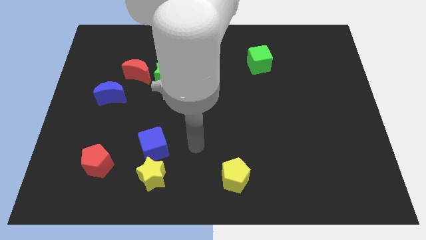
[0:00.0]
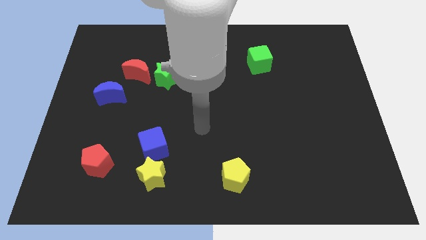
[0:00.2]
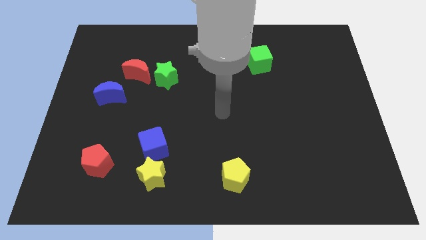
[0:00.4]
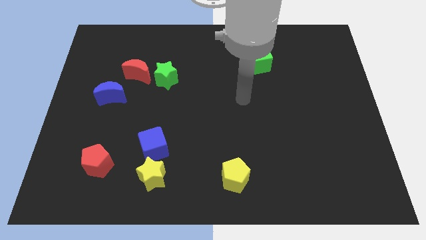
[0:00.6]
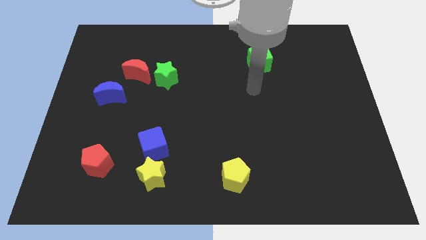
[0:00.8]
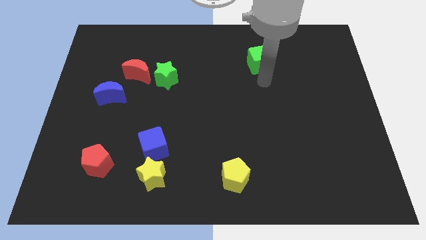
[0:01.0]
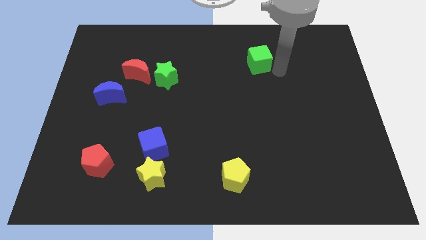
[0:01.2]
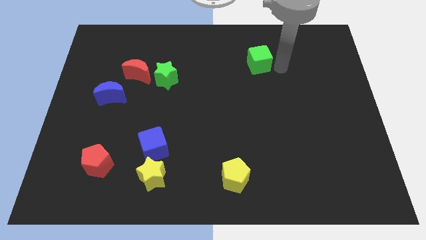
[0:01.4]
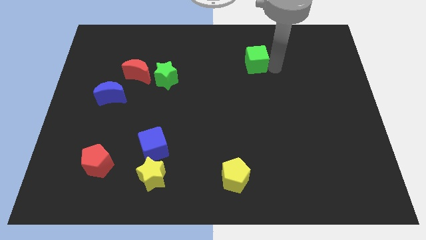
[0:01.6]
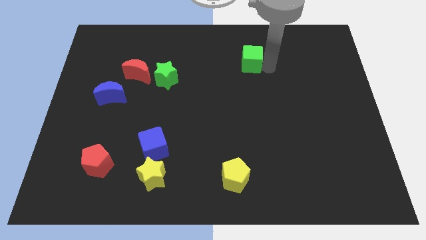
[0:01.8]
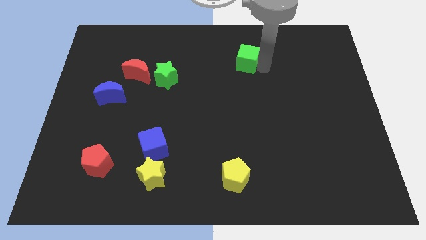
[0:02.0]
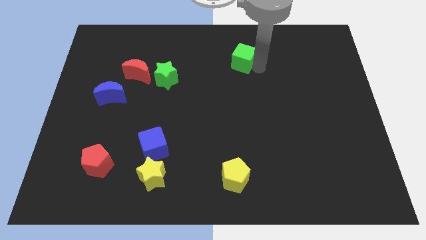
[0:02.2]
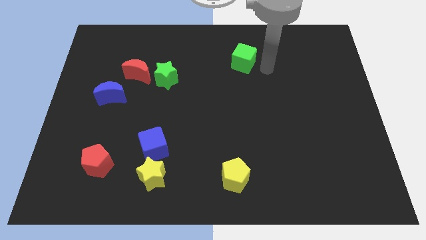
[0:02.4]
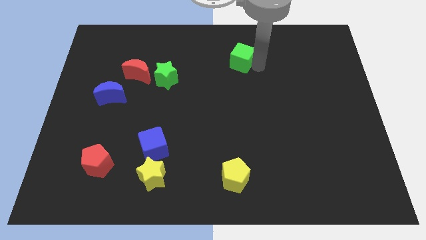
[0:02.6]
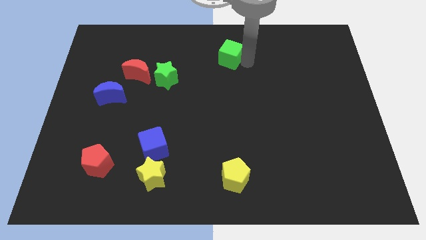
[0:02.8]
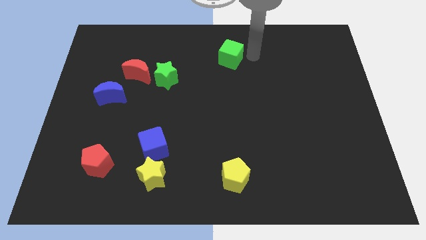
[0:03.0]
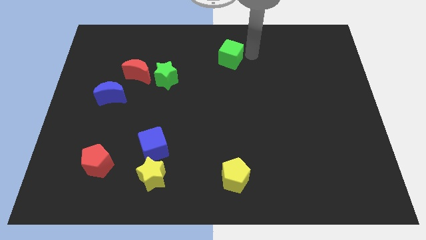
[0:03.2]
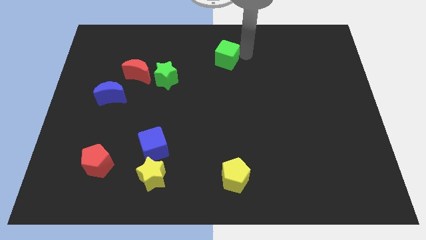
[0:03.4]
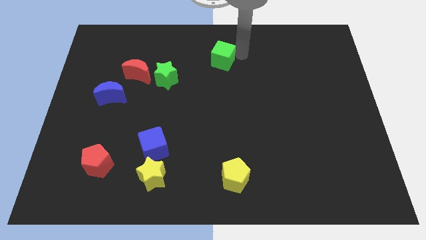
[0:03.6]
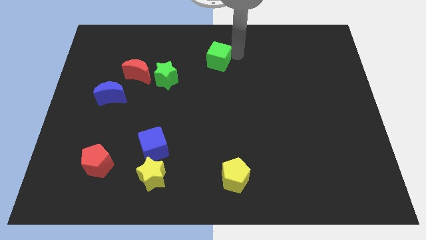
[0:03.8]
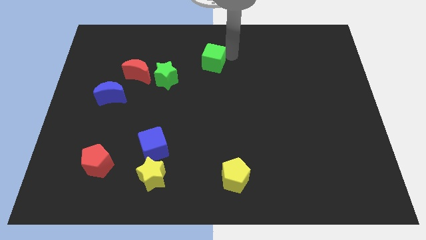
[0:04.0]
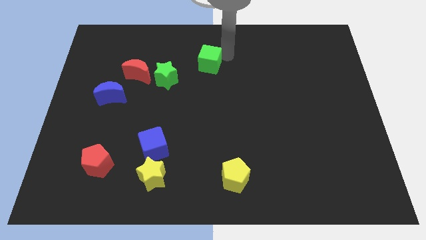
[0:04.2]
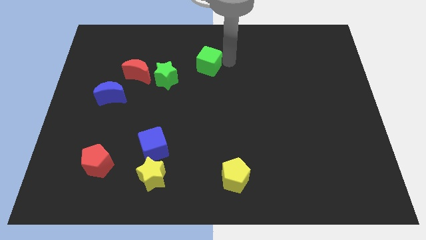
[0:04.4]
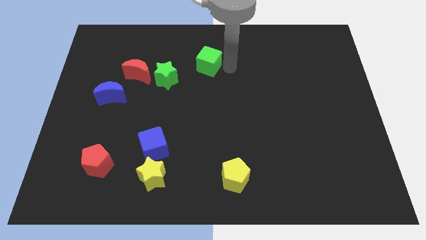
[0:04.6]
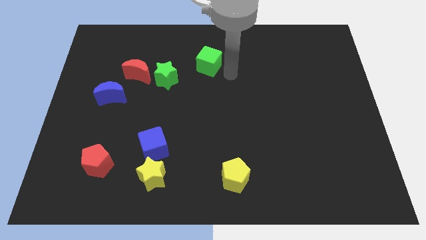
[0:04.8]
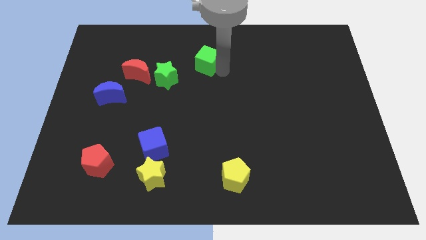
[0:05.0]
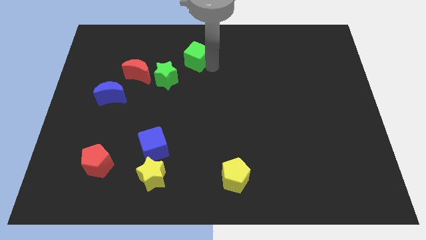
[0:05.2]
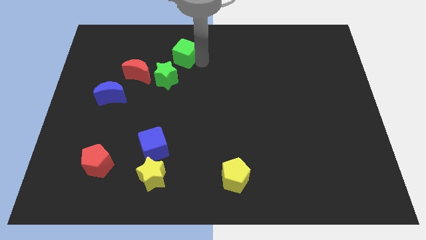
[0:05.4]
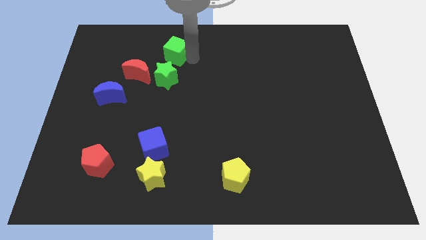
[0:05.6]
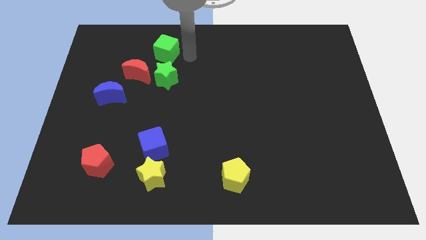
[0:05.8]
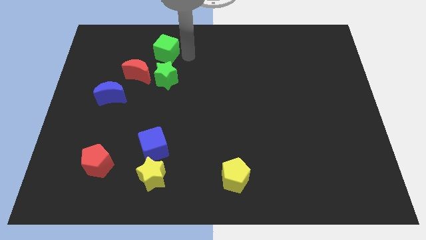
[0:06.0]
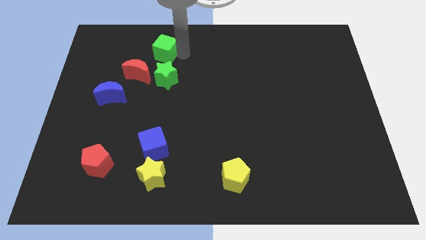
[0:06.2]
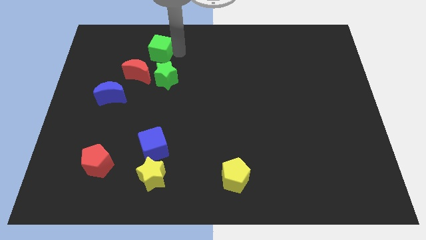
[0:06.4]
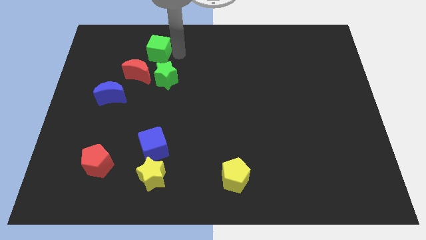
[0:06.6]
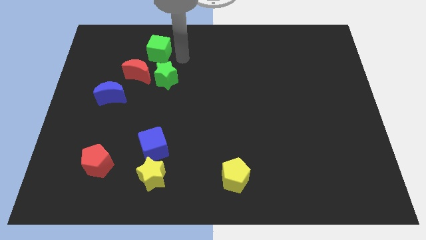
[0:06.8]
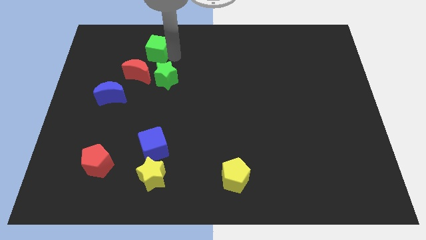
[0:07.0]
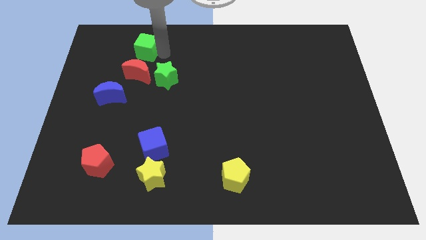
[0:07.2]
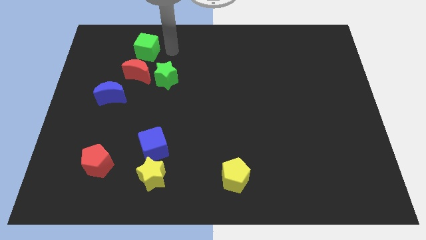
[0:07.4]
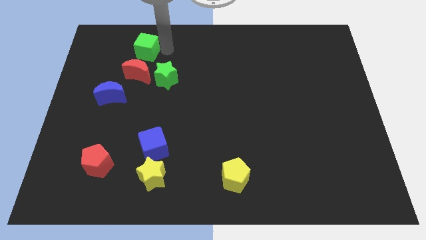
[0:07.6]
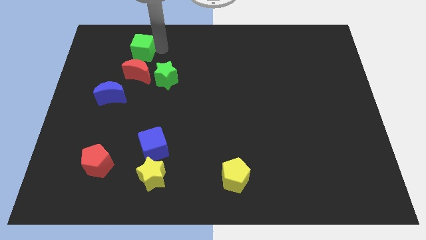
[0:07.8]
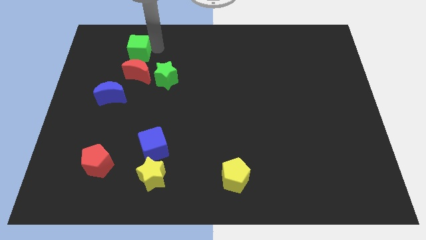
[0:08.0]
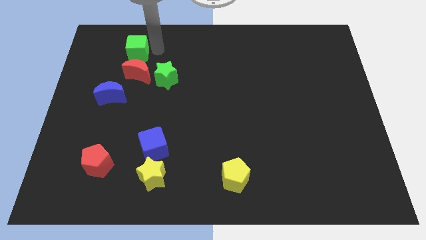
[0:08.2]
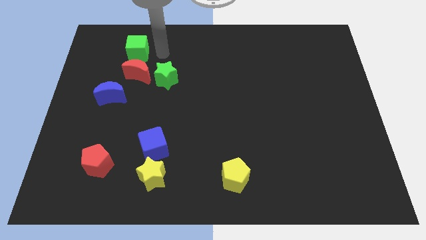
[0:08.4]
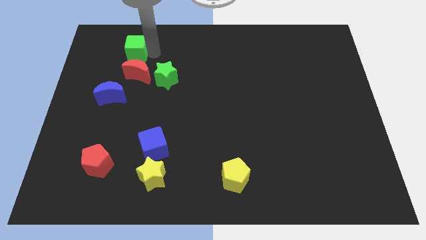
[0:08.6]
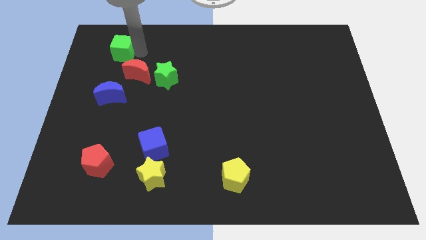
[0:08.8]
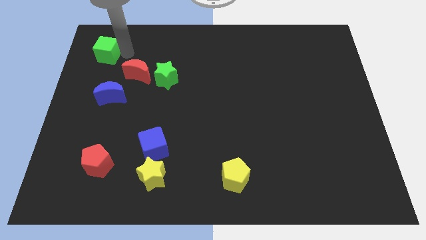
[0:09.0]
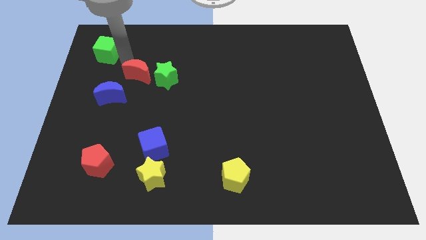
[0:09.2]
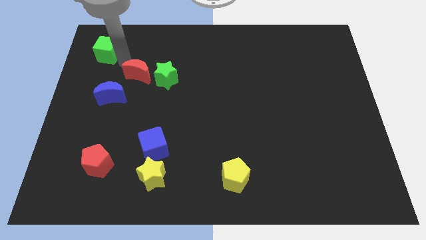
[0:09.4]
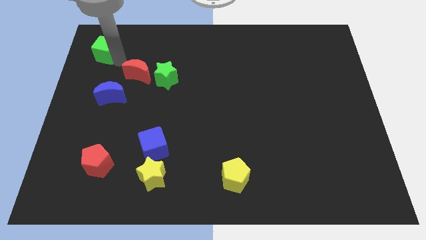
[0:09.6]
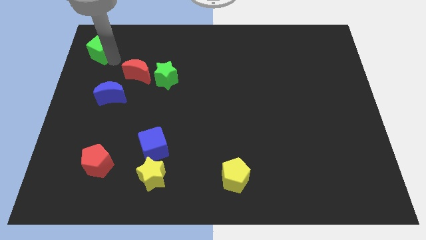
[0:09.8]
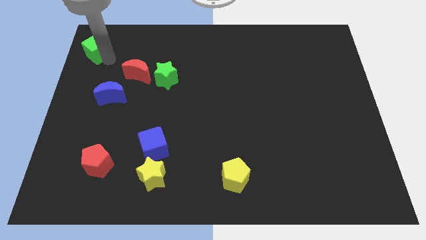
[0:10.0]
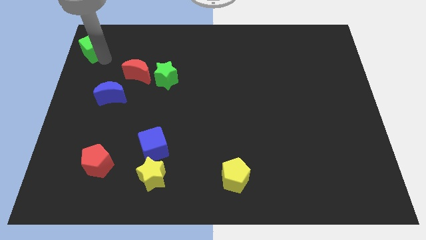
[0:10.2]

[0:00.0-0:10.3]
move the green cube to the upper left corner

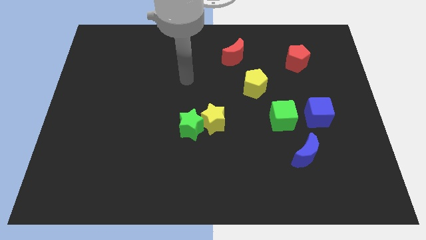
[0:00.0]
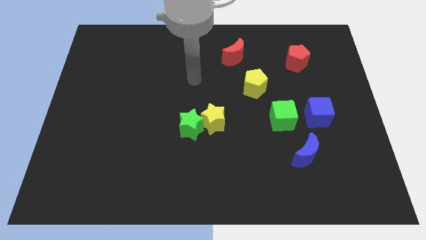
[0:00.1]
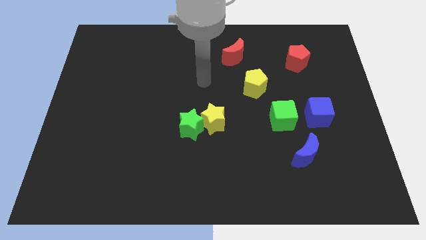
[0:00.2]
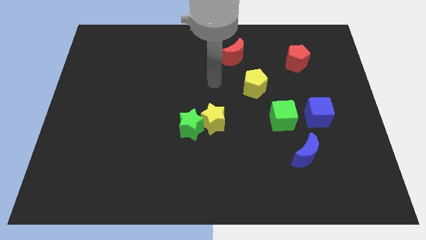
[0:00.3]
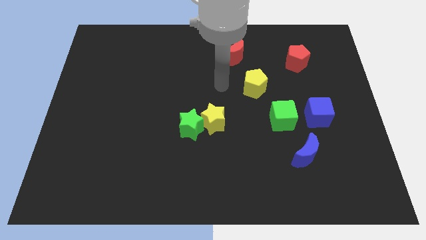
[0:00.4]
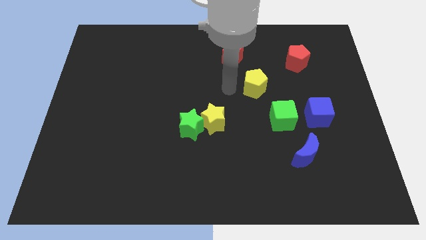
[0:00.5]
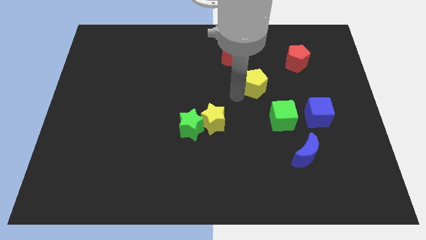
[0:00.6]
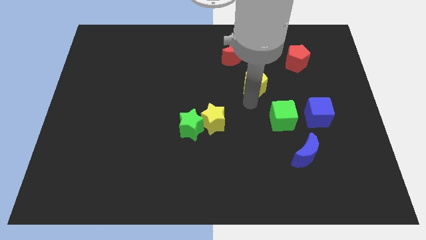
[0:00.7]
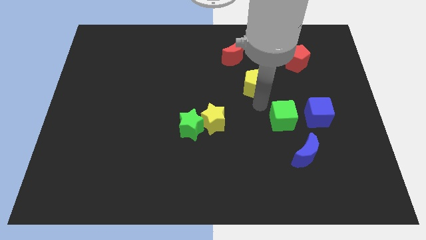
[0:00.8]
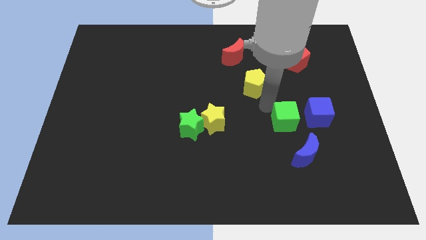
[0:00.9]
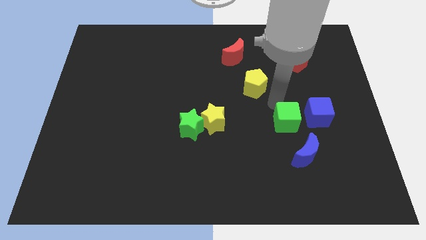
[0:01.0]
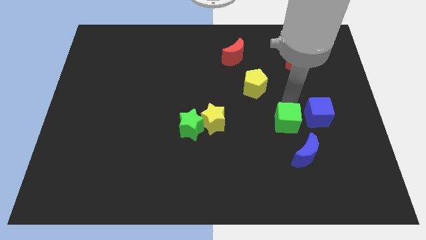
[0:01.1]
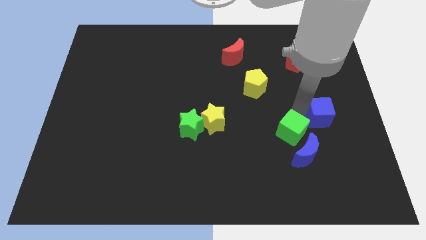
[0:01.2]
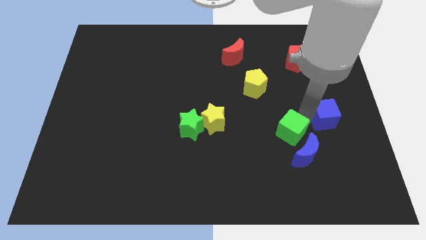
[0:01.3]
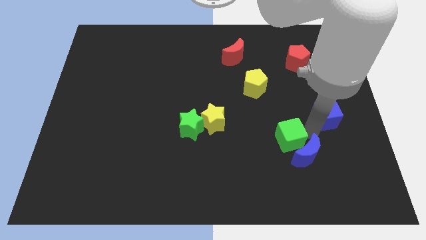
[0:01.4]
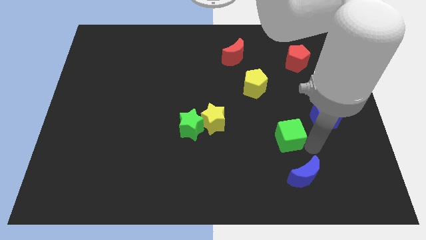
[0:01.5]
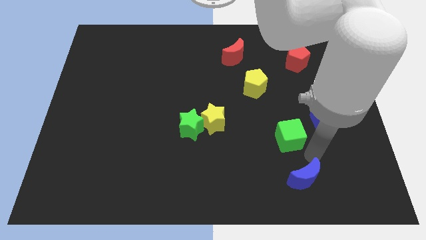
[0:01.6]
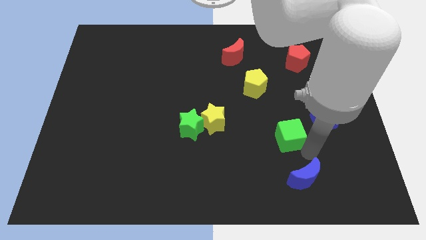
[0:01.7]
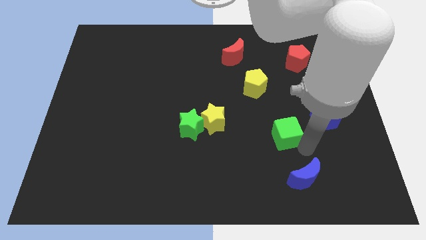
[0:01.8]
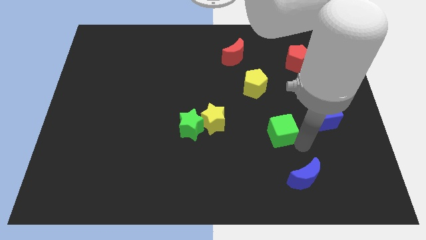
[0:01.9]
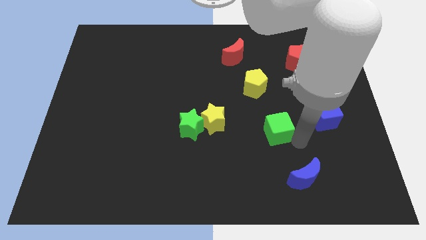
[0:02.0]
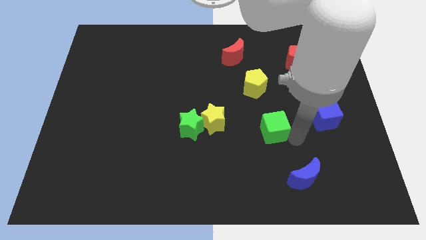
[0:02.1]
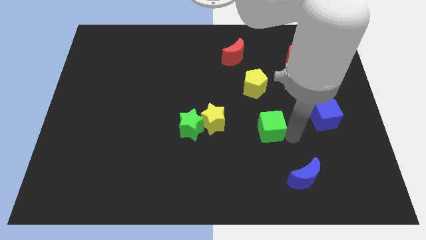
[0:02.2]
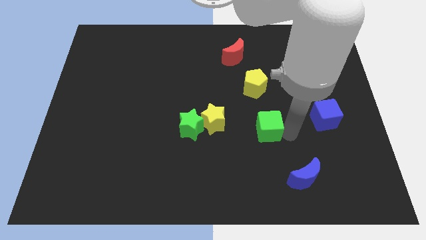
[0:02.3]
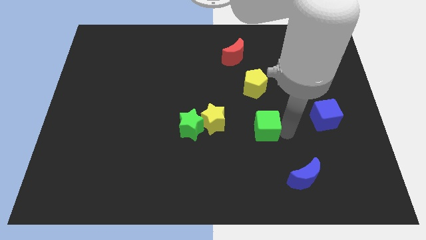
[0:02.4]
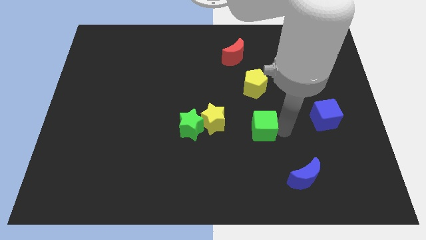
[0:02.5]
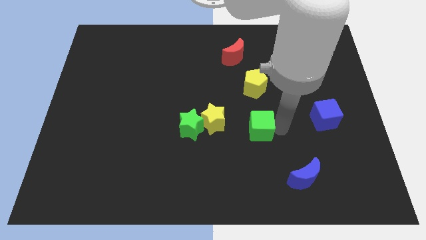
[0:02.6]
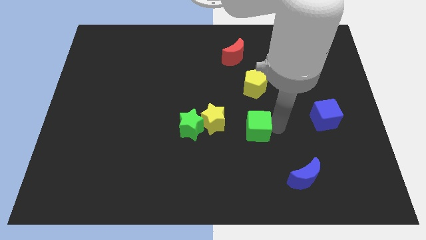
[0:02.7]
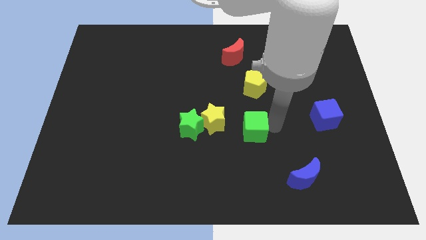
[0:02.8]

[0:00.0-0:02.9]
move the green cube to the middle of the board
